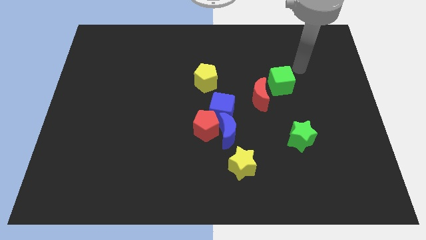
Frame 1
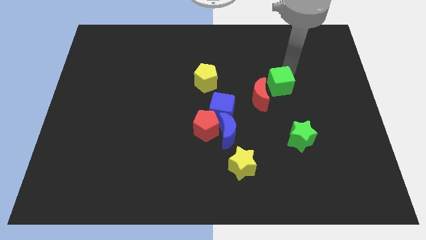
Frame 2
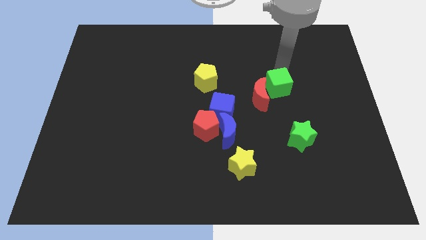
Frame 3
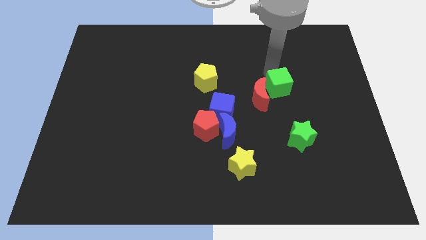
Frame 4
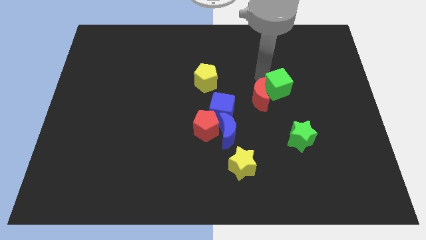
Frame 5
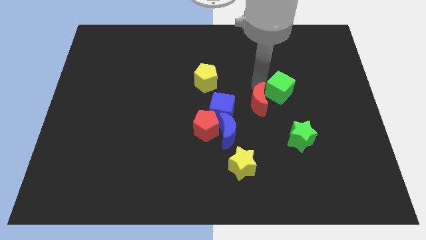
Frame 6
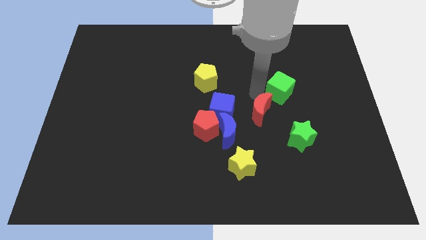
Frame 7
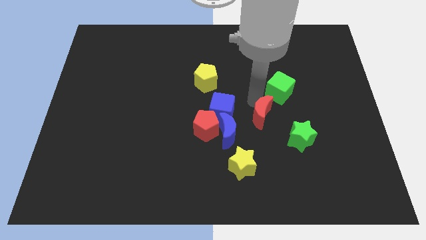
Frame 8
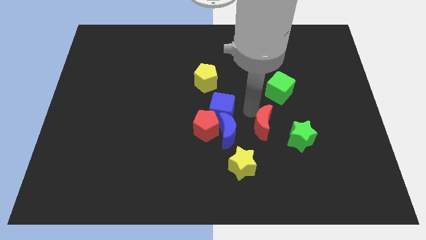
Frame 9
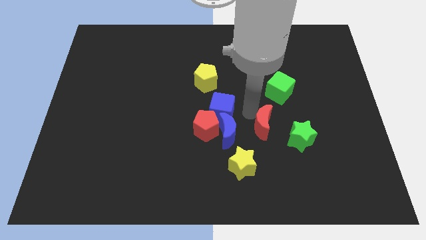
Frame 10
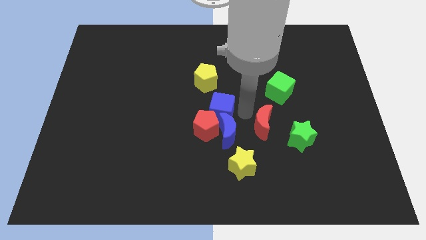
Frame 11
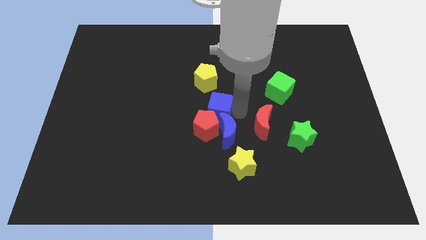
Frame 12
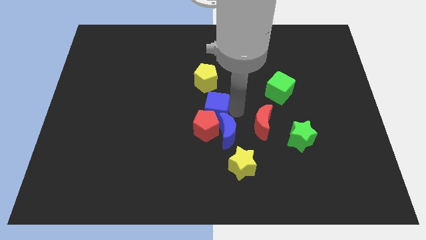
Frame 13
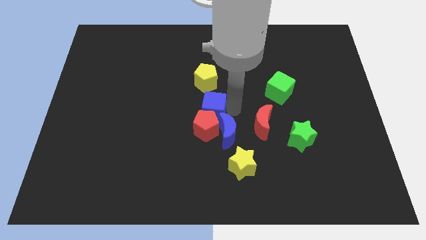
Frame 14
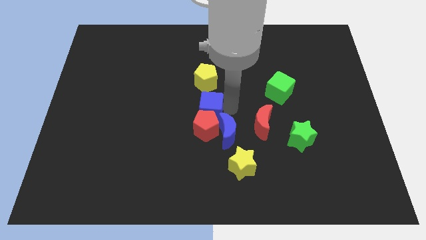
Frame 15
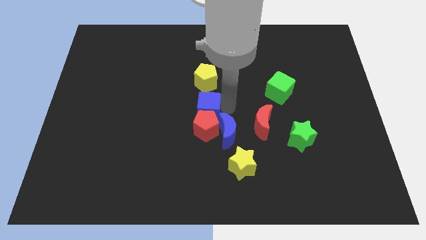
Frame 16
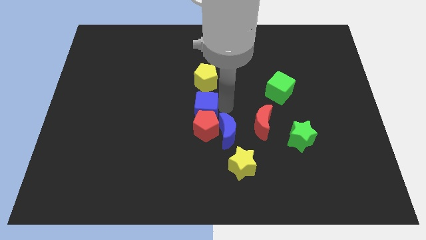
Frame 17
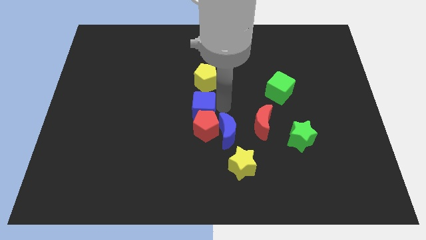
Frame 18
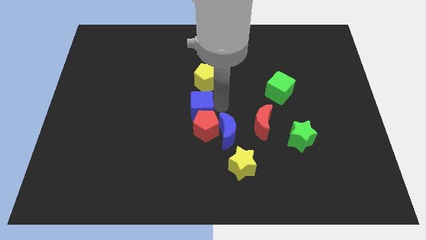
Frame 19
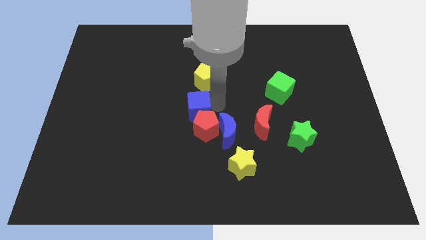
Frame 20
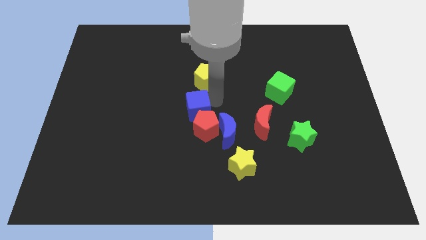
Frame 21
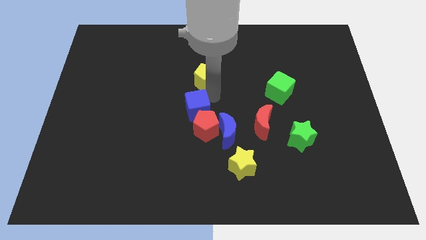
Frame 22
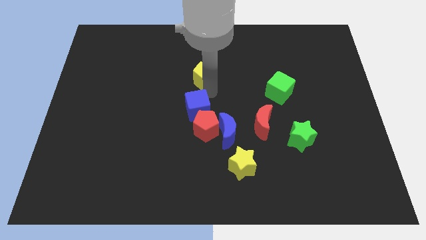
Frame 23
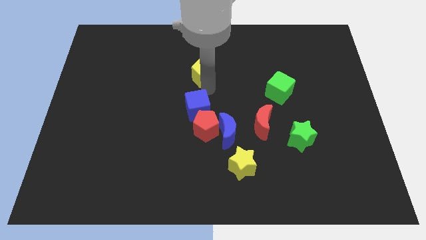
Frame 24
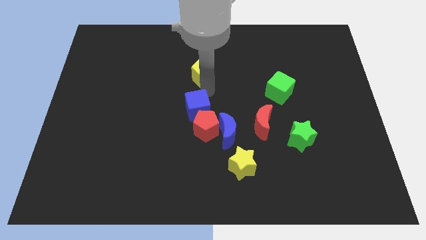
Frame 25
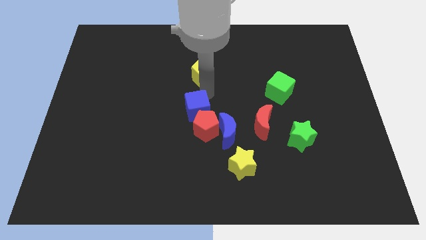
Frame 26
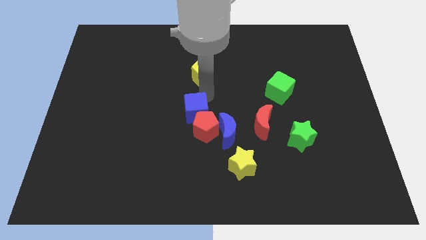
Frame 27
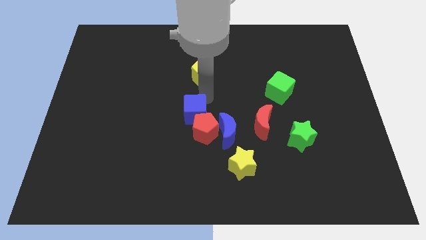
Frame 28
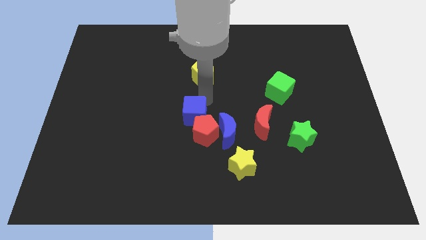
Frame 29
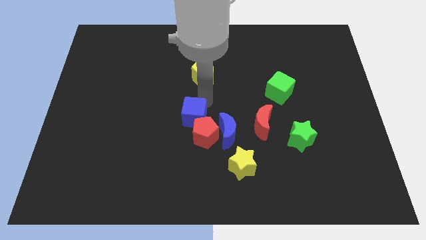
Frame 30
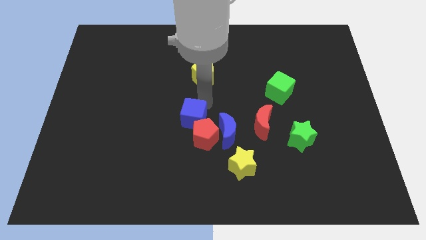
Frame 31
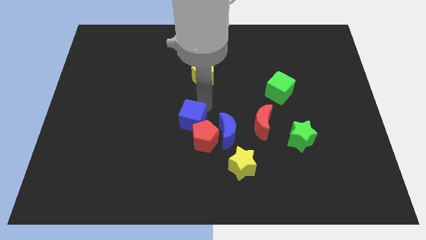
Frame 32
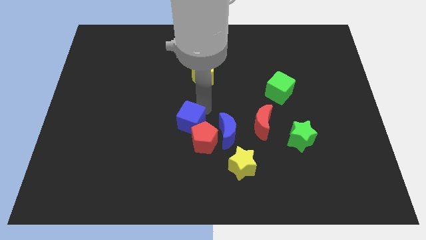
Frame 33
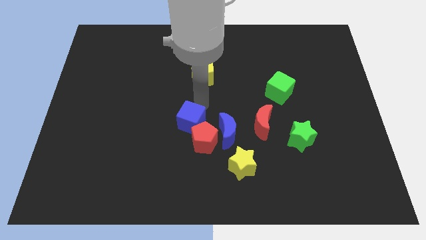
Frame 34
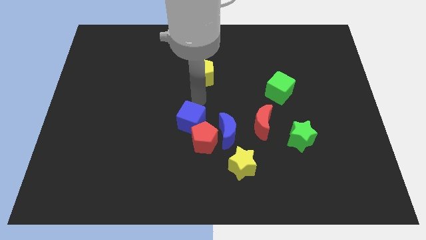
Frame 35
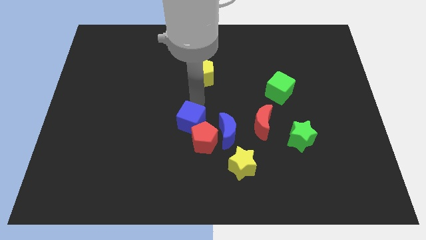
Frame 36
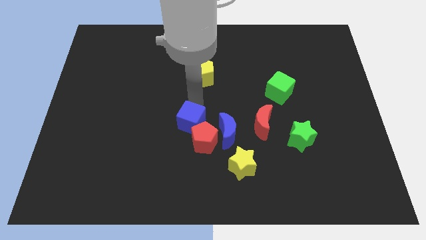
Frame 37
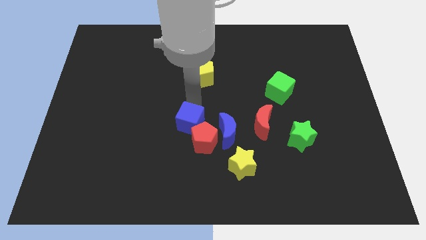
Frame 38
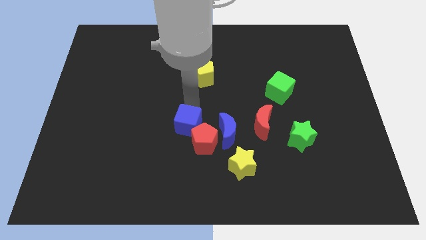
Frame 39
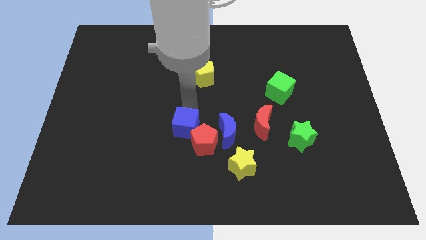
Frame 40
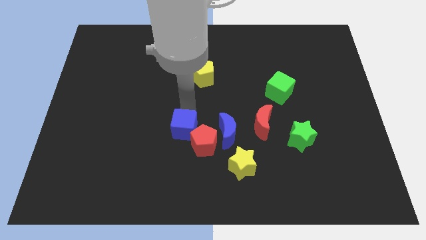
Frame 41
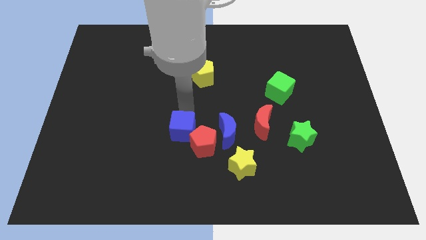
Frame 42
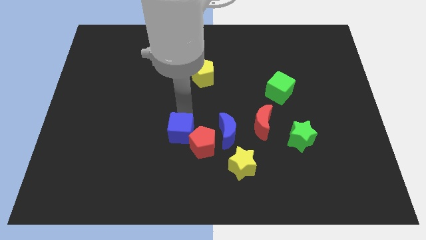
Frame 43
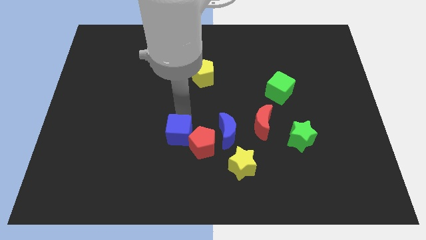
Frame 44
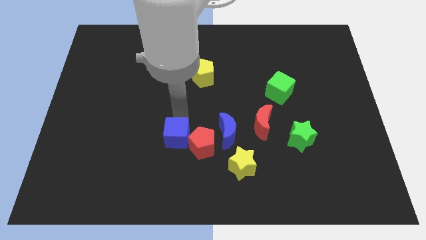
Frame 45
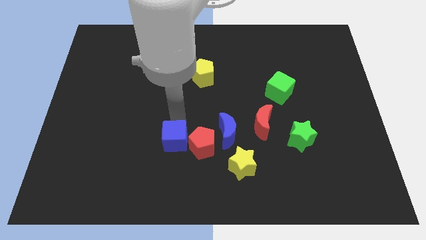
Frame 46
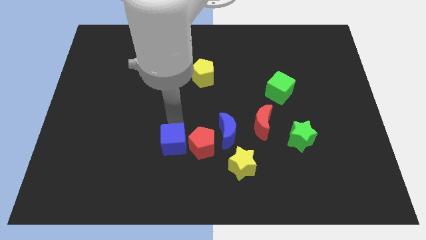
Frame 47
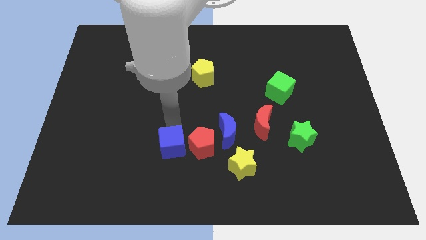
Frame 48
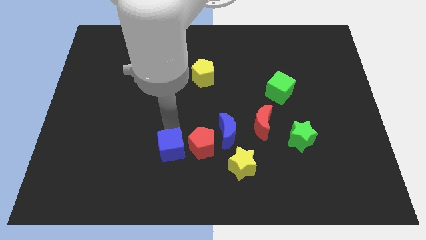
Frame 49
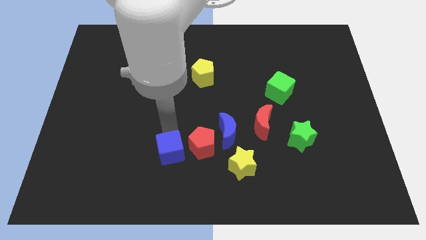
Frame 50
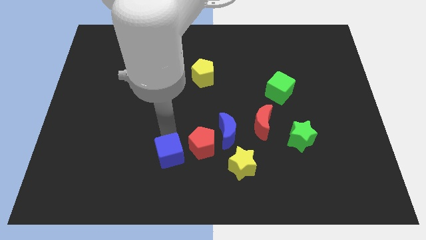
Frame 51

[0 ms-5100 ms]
put the blue cube left of the yellow star

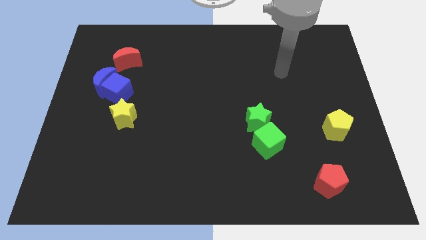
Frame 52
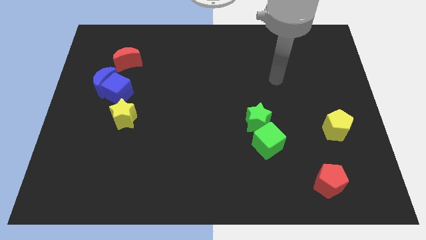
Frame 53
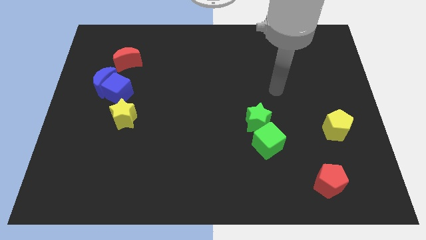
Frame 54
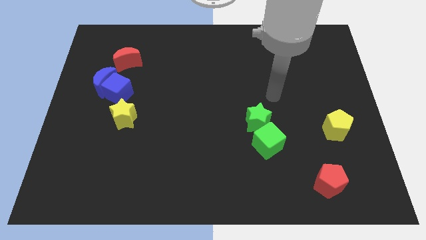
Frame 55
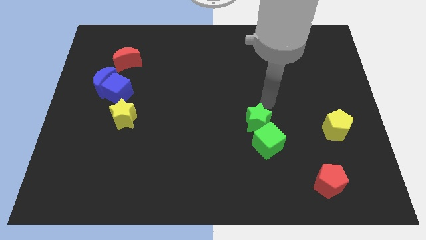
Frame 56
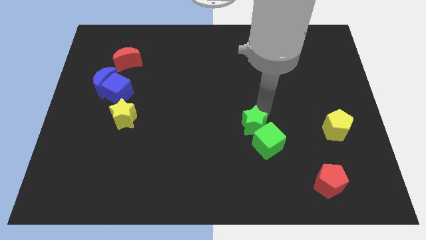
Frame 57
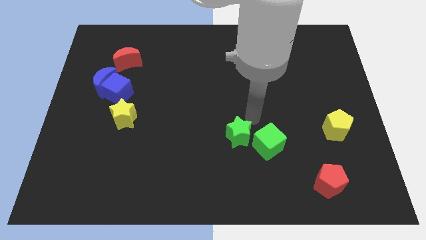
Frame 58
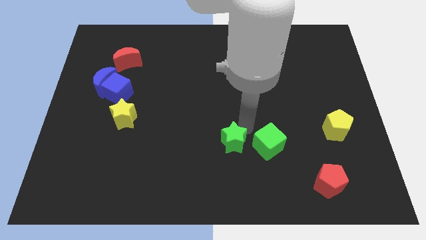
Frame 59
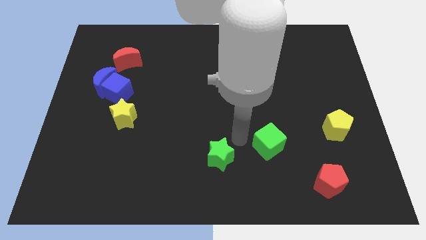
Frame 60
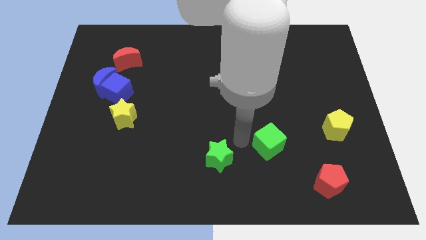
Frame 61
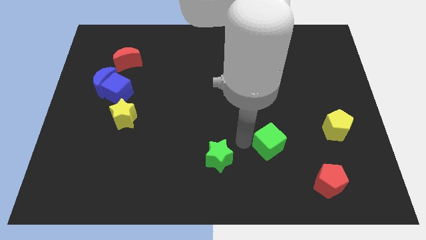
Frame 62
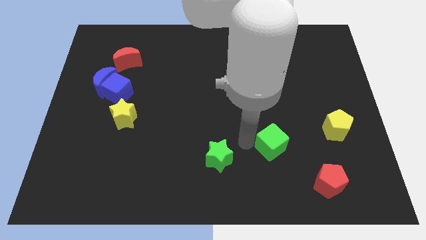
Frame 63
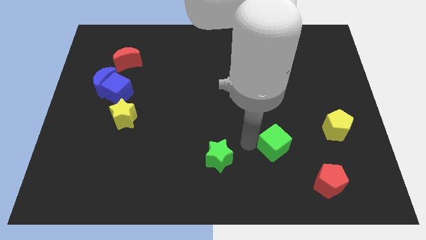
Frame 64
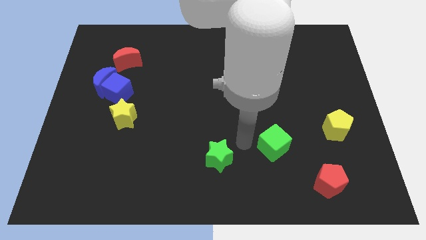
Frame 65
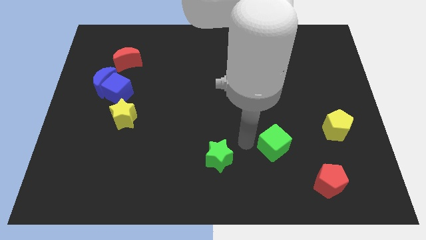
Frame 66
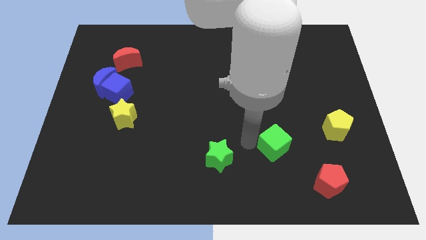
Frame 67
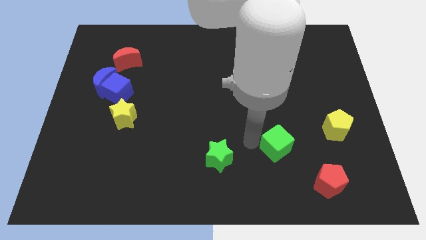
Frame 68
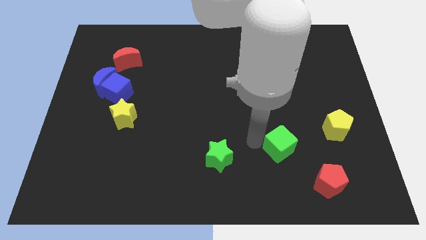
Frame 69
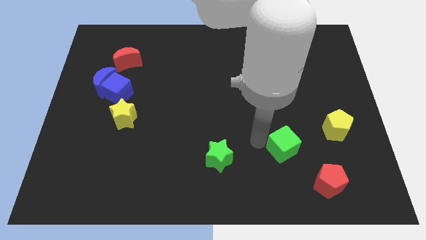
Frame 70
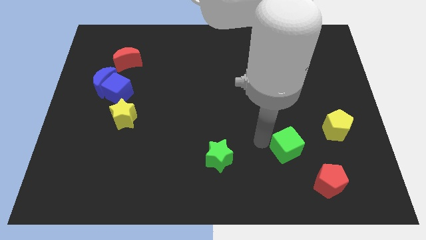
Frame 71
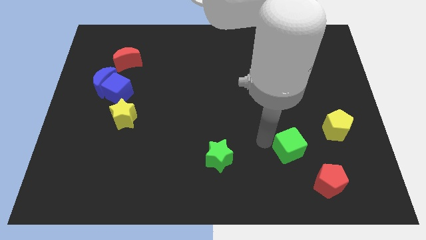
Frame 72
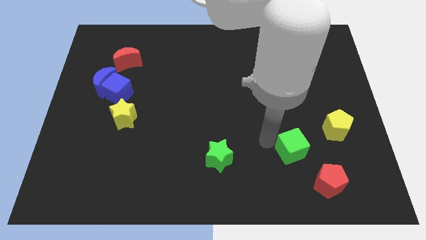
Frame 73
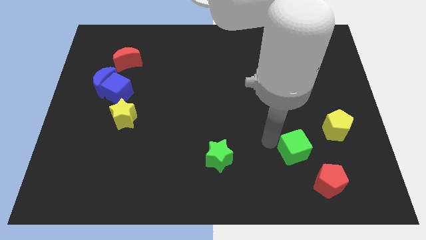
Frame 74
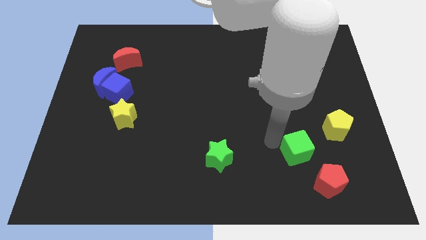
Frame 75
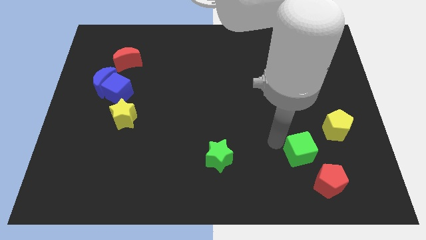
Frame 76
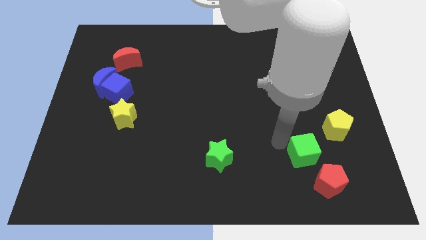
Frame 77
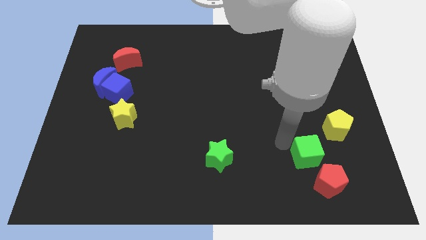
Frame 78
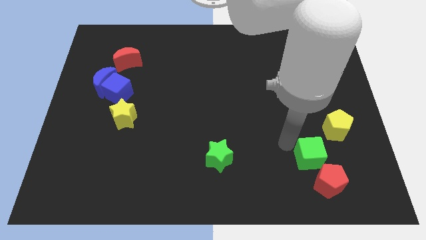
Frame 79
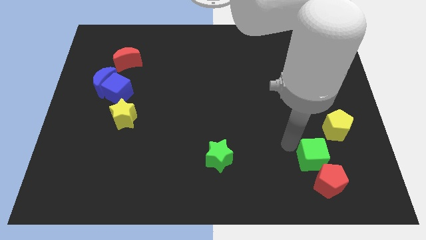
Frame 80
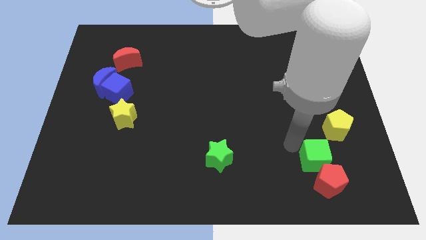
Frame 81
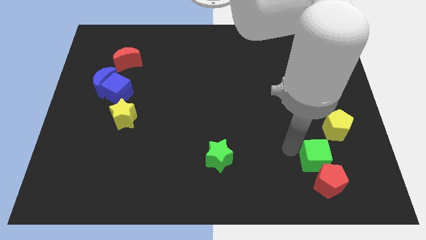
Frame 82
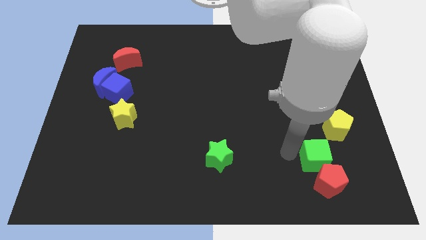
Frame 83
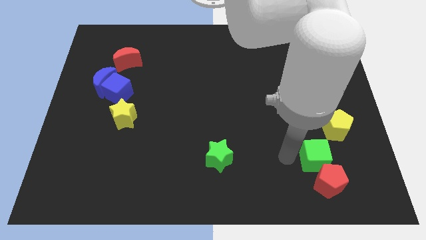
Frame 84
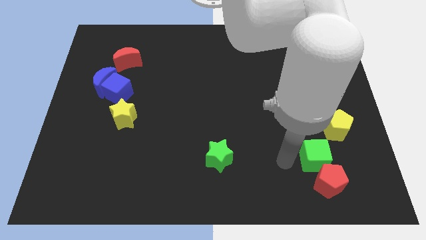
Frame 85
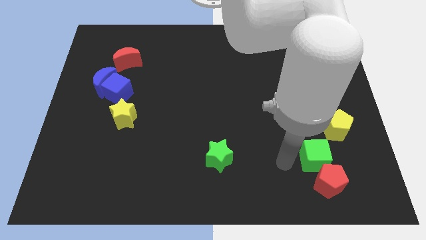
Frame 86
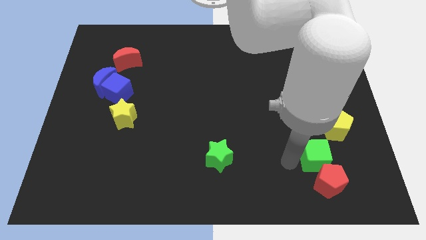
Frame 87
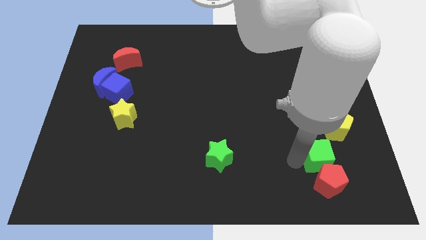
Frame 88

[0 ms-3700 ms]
slide the green cube to the top right side of the red pentagon
